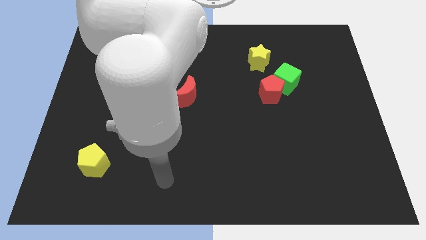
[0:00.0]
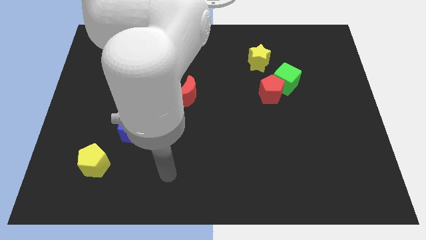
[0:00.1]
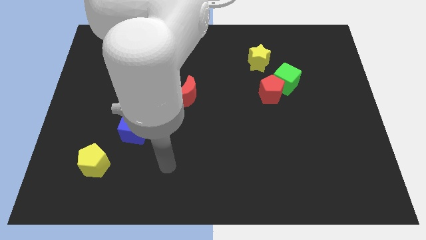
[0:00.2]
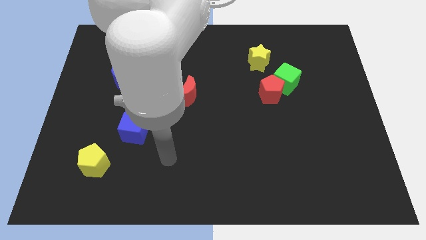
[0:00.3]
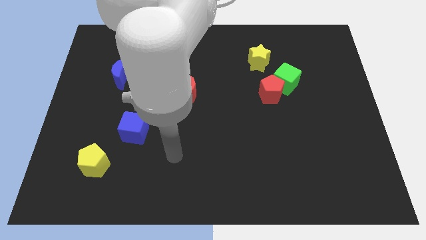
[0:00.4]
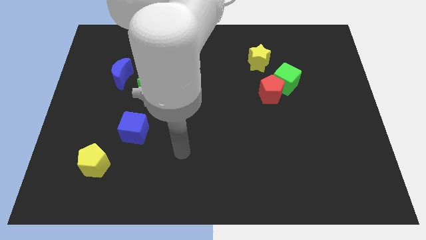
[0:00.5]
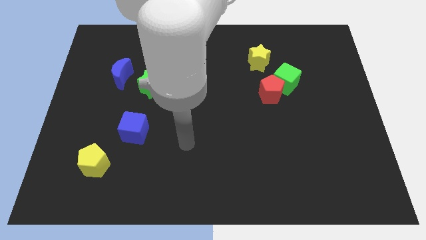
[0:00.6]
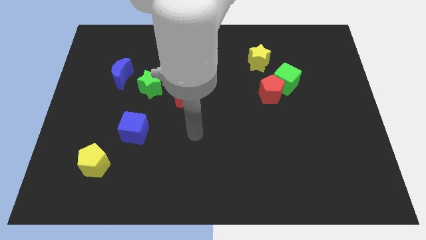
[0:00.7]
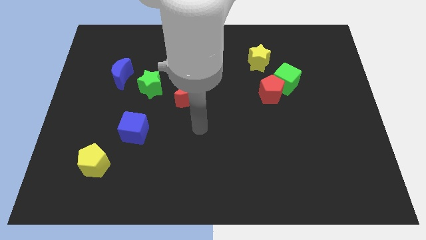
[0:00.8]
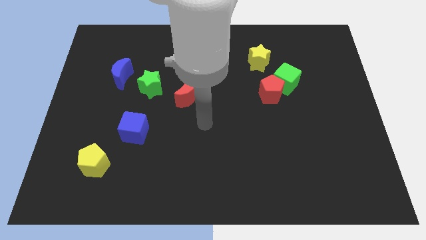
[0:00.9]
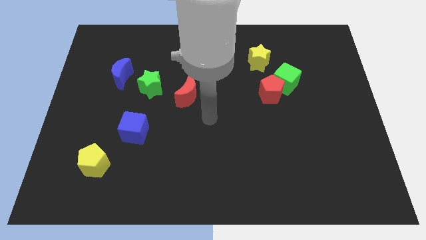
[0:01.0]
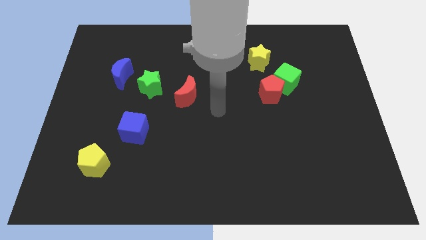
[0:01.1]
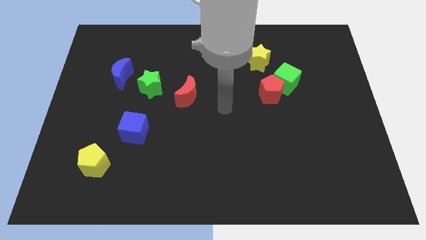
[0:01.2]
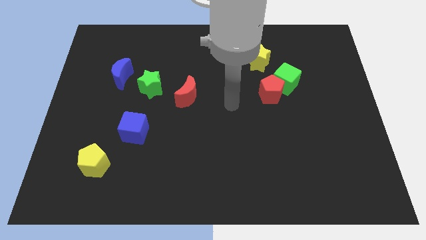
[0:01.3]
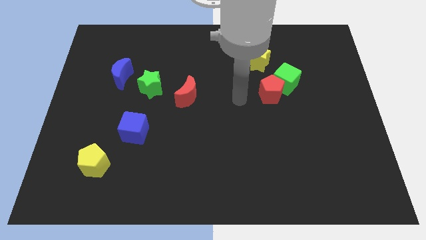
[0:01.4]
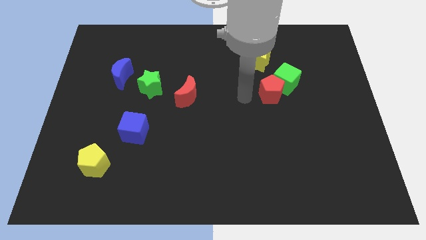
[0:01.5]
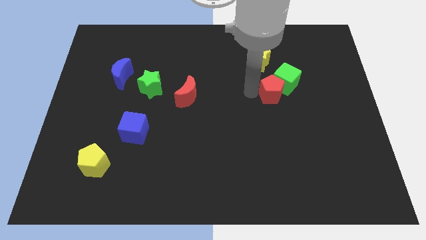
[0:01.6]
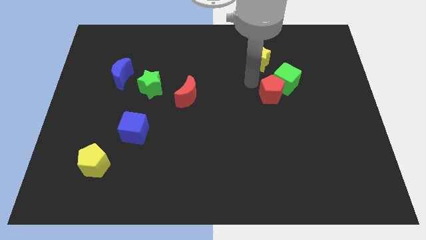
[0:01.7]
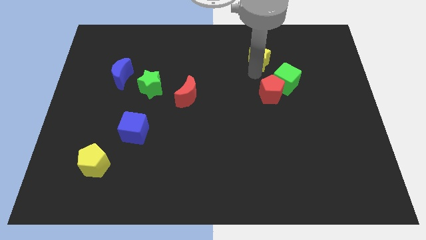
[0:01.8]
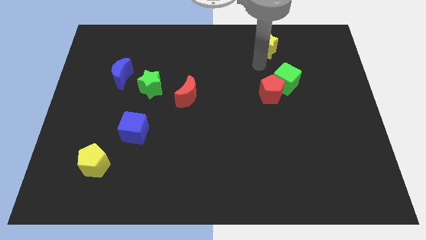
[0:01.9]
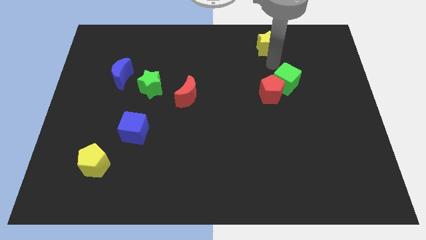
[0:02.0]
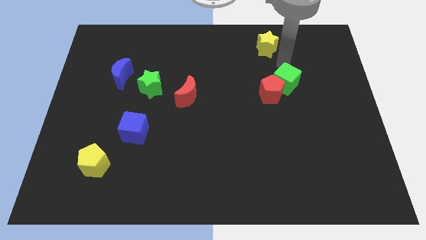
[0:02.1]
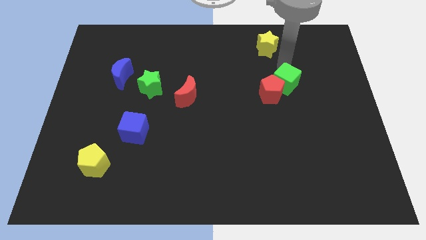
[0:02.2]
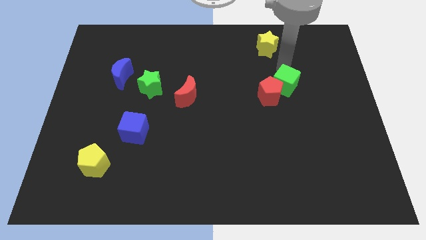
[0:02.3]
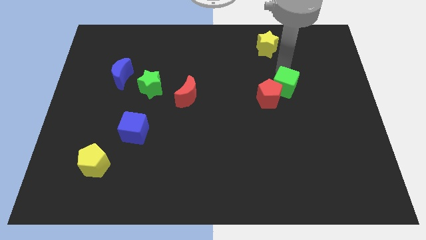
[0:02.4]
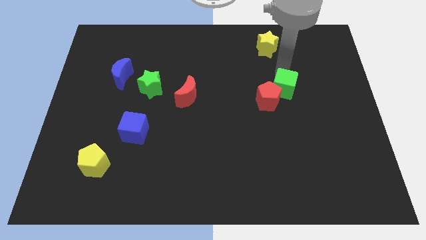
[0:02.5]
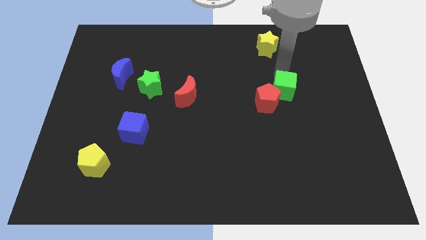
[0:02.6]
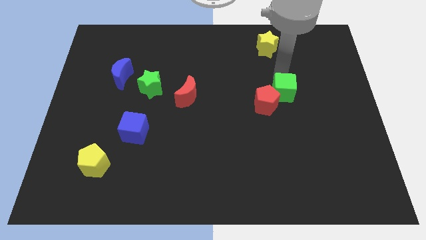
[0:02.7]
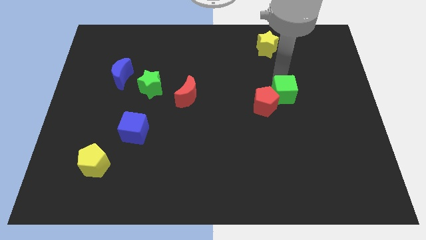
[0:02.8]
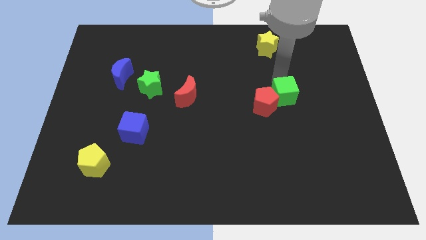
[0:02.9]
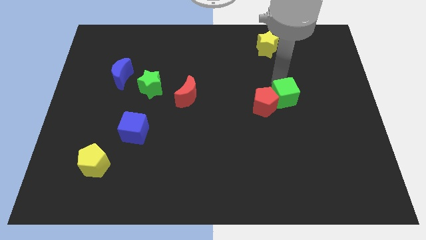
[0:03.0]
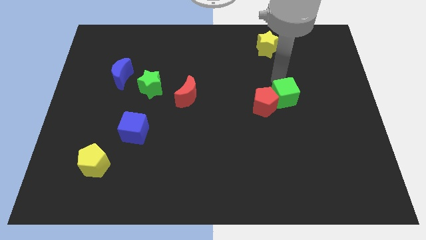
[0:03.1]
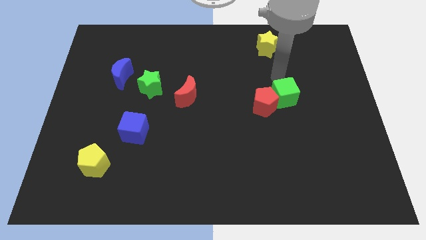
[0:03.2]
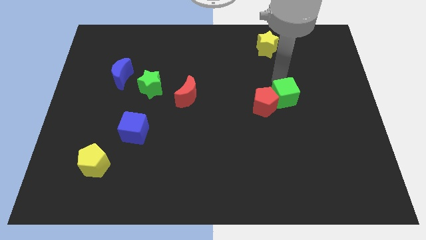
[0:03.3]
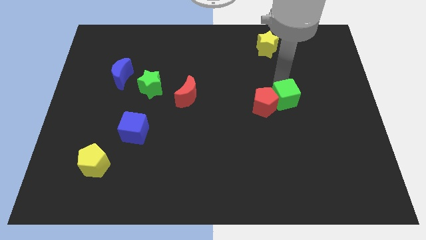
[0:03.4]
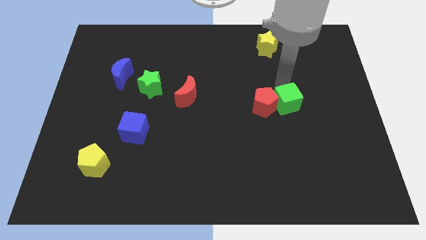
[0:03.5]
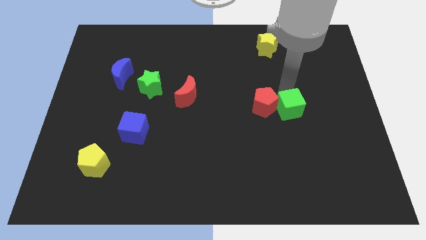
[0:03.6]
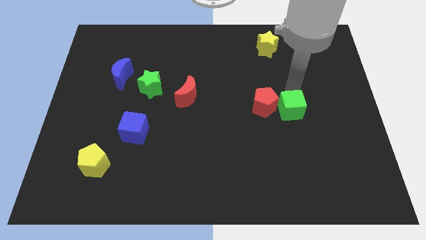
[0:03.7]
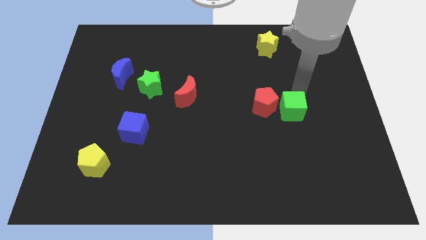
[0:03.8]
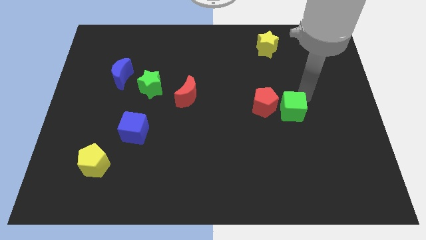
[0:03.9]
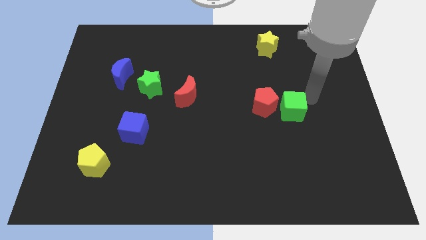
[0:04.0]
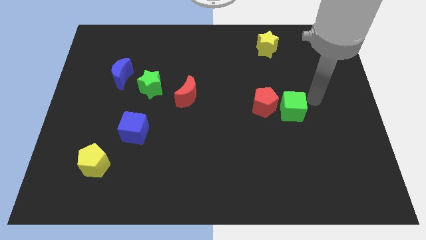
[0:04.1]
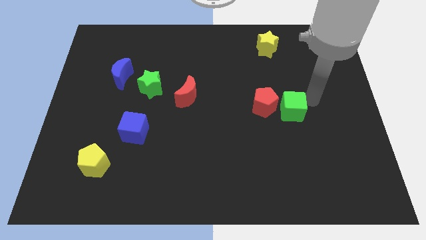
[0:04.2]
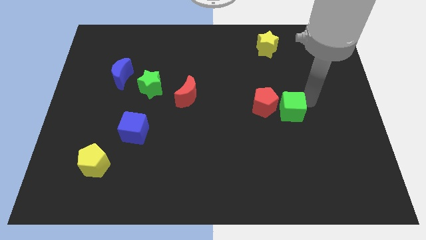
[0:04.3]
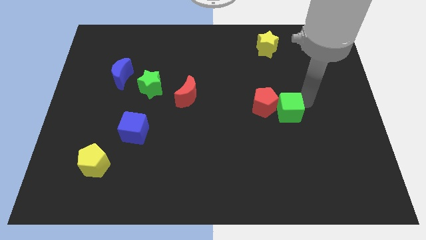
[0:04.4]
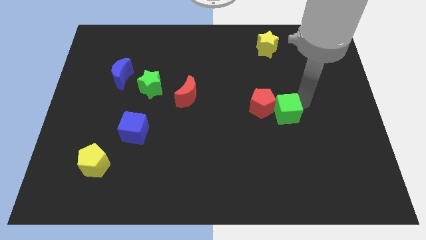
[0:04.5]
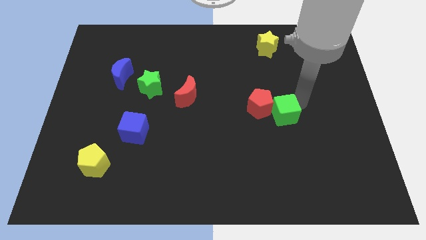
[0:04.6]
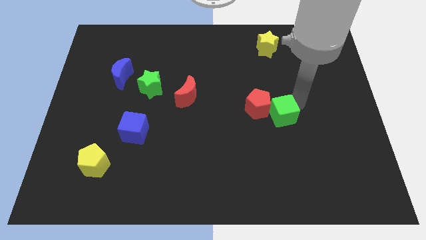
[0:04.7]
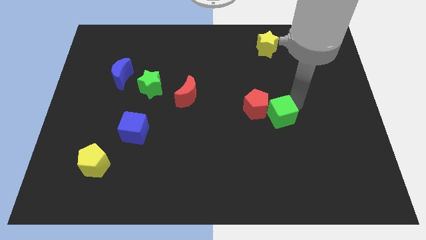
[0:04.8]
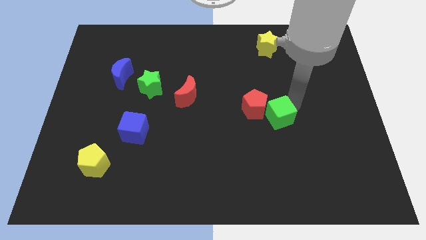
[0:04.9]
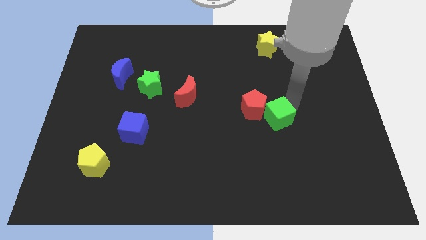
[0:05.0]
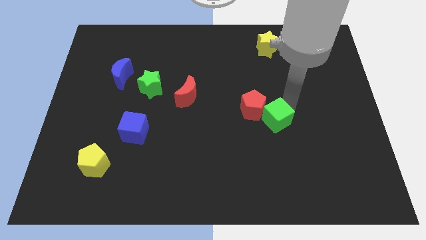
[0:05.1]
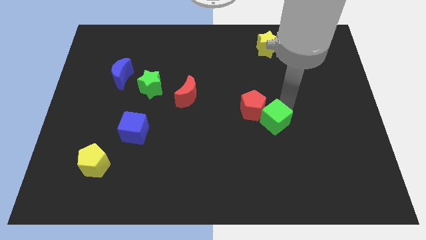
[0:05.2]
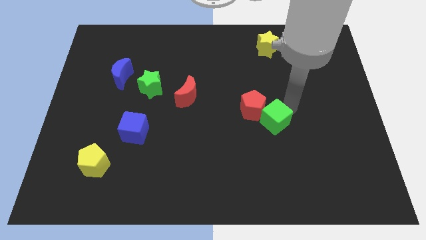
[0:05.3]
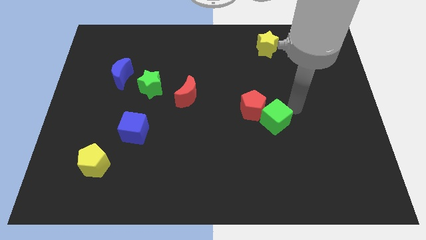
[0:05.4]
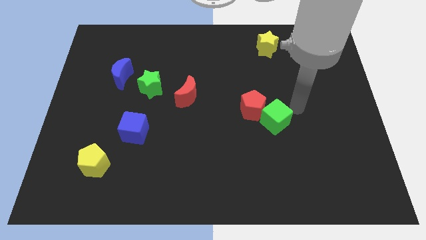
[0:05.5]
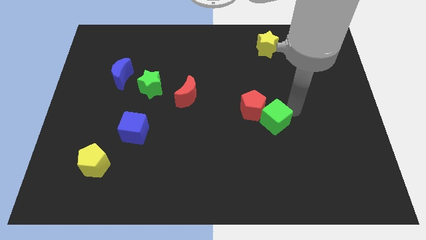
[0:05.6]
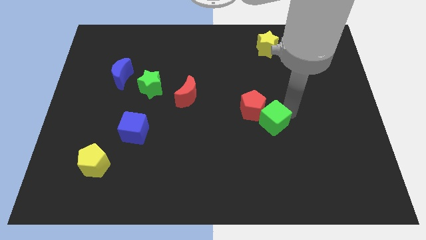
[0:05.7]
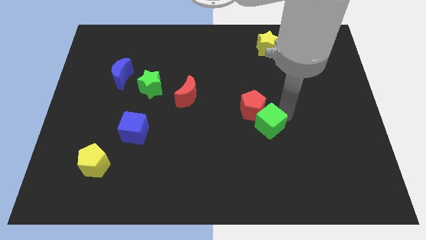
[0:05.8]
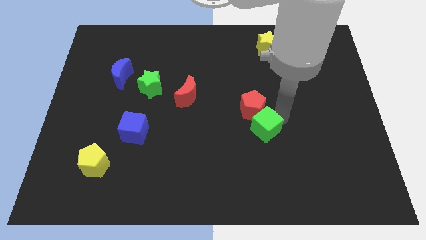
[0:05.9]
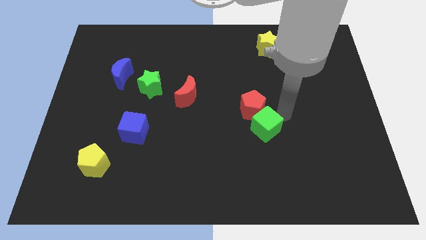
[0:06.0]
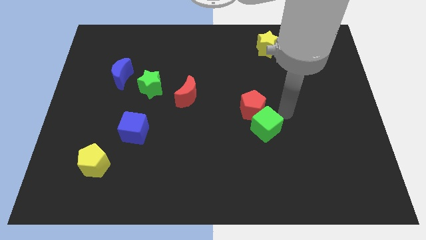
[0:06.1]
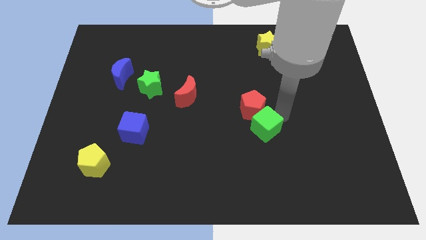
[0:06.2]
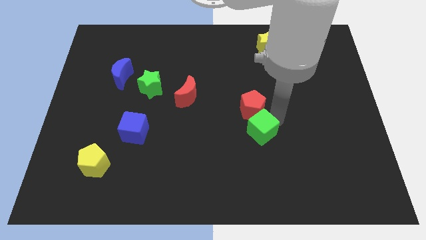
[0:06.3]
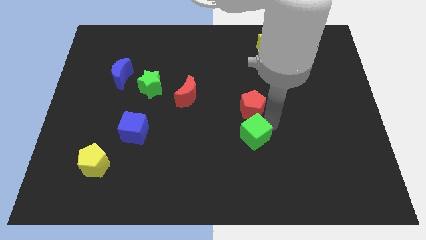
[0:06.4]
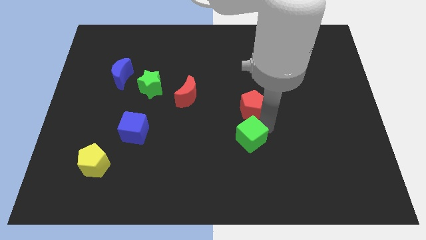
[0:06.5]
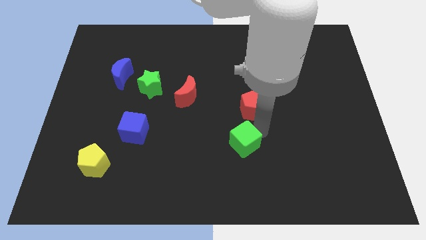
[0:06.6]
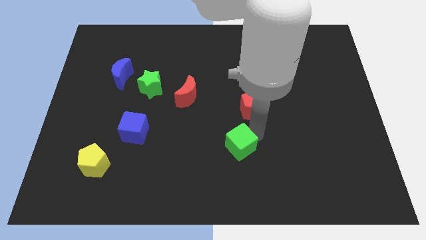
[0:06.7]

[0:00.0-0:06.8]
push the green cube diagonally downwards and left

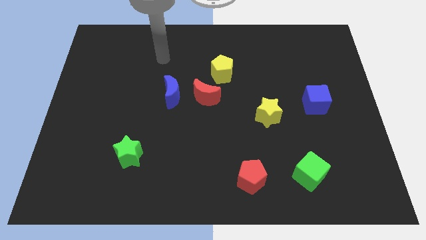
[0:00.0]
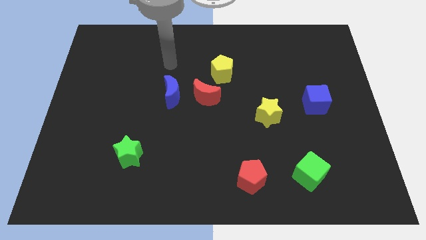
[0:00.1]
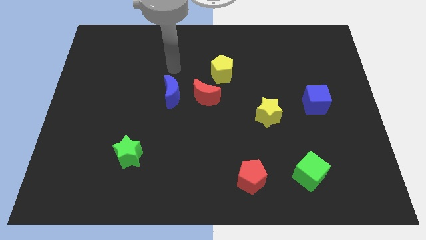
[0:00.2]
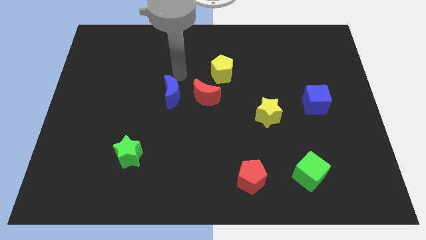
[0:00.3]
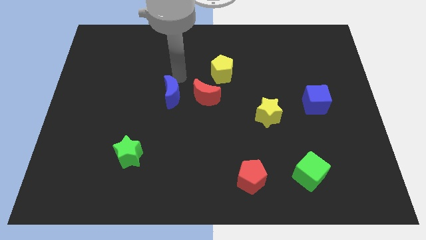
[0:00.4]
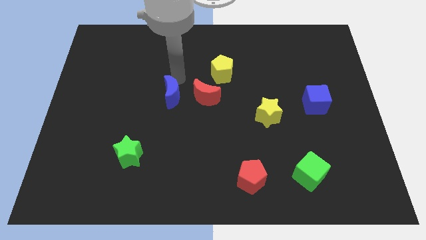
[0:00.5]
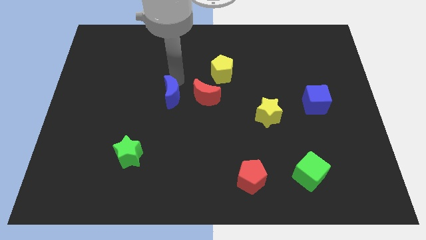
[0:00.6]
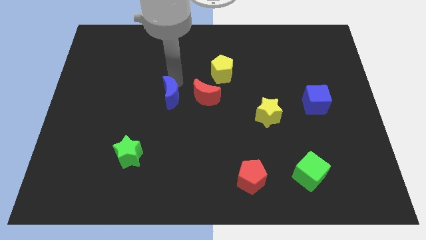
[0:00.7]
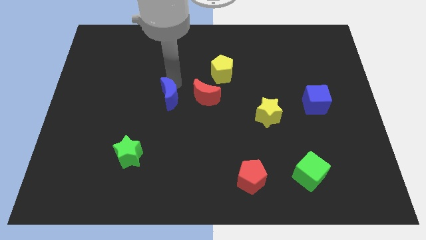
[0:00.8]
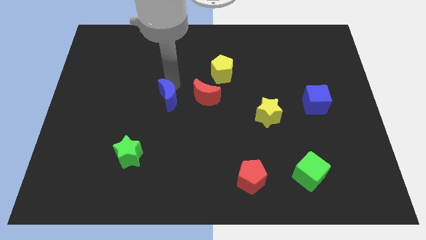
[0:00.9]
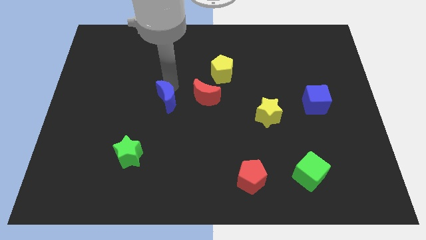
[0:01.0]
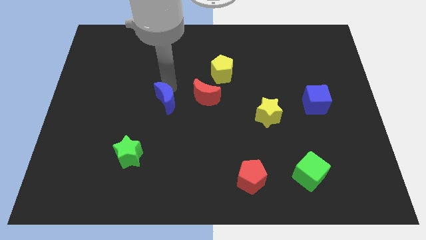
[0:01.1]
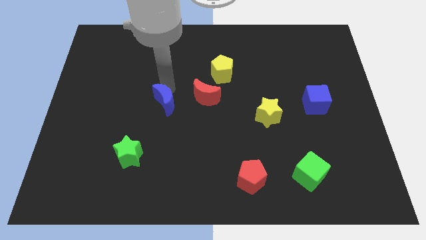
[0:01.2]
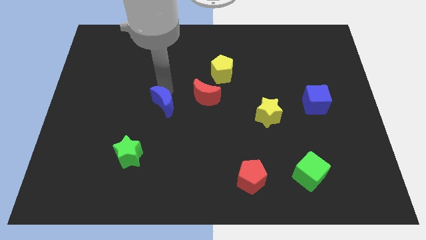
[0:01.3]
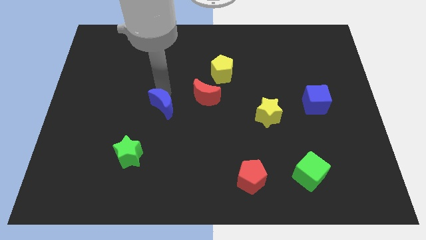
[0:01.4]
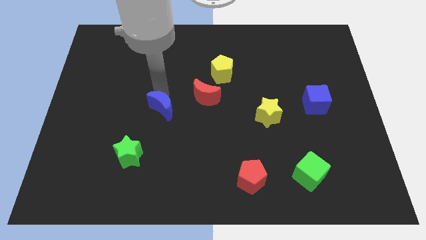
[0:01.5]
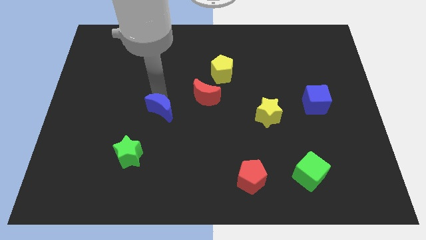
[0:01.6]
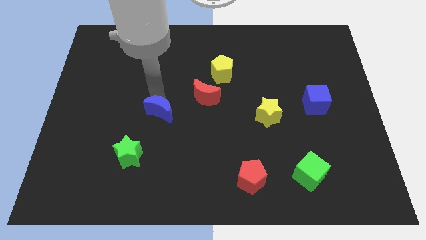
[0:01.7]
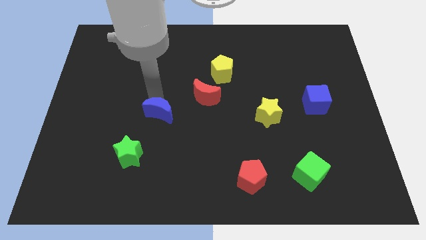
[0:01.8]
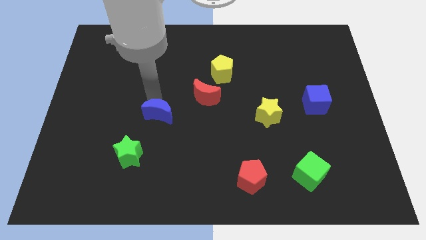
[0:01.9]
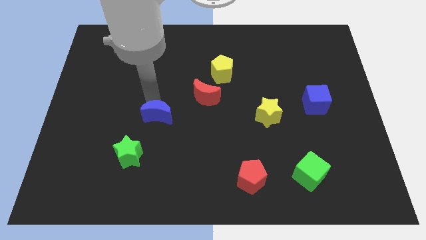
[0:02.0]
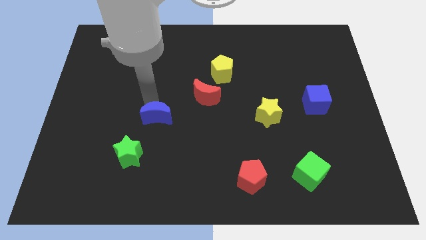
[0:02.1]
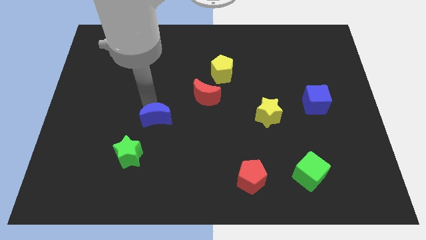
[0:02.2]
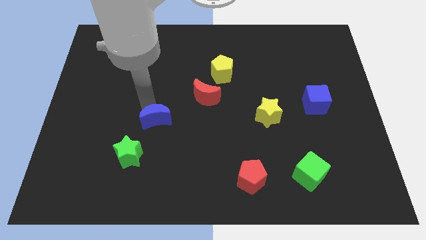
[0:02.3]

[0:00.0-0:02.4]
slightly move the blue moon down
